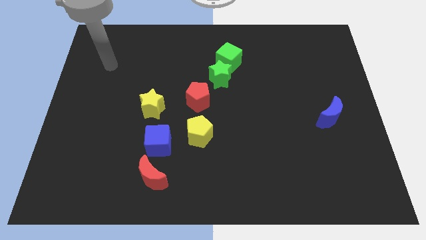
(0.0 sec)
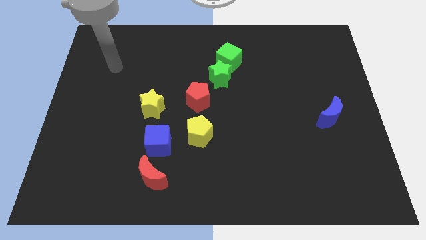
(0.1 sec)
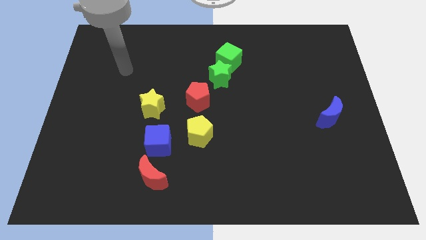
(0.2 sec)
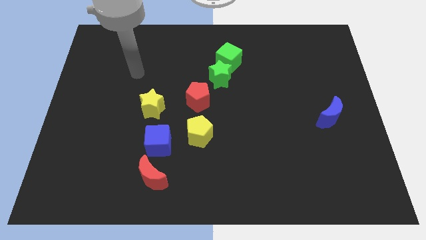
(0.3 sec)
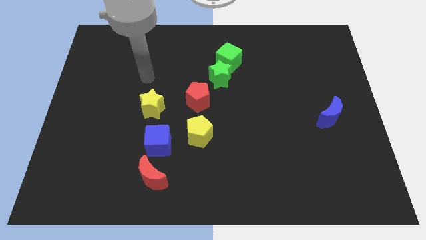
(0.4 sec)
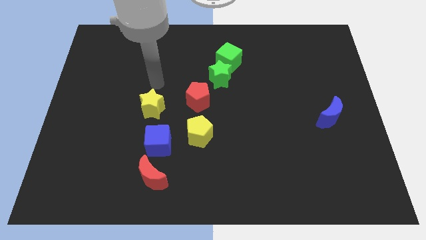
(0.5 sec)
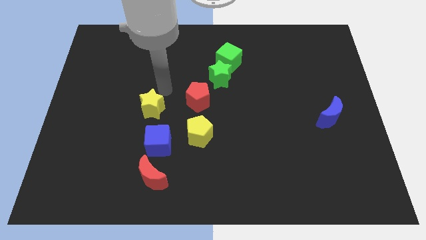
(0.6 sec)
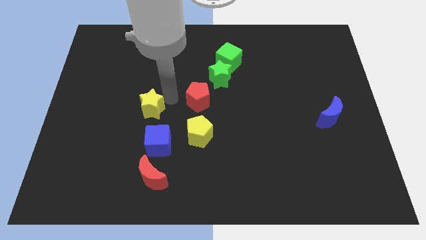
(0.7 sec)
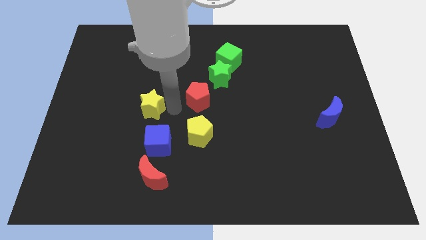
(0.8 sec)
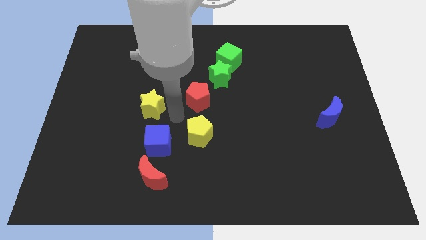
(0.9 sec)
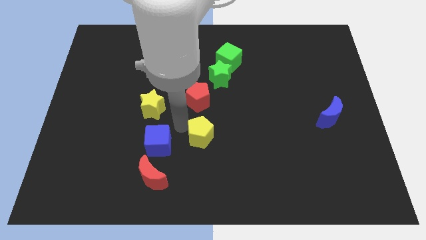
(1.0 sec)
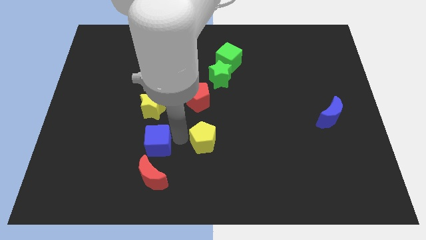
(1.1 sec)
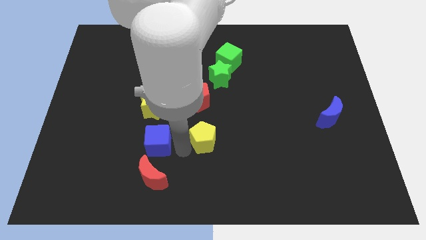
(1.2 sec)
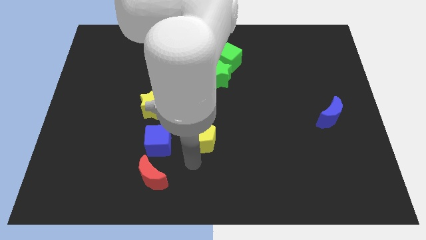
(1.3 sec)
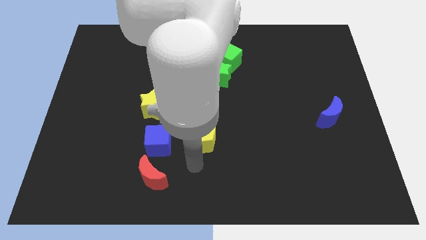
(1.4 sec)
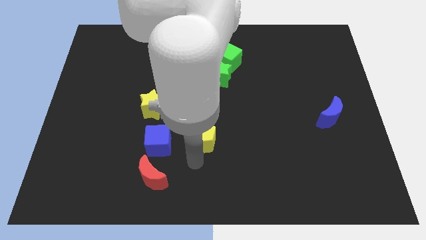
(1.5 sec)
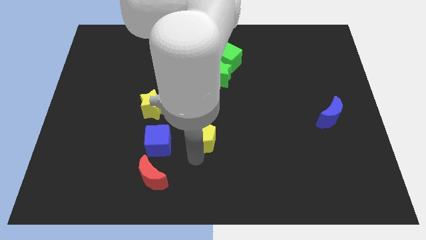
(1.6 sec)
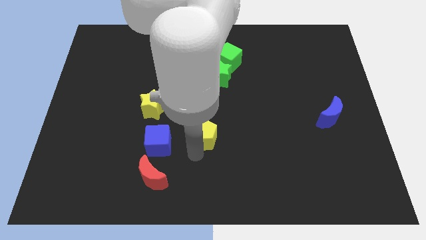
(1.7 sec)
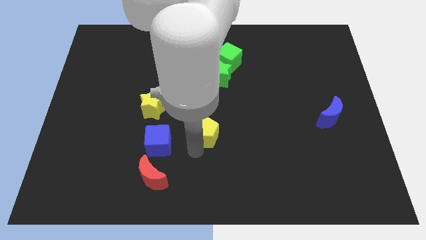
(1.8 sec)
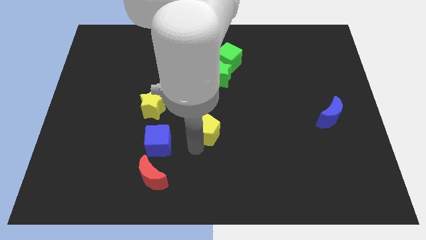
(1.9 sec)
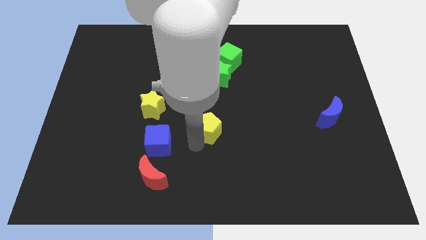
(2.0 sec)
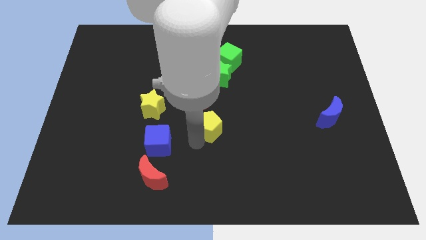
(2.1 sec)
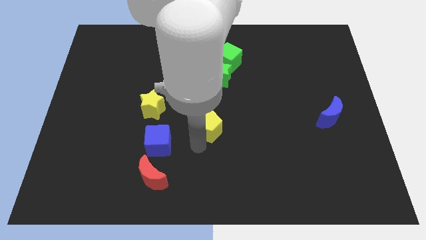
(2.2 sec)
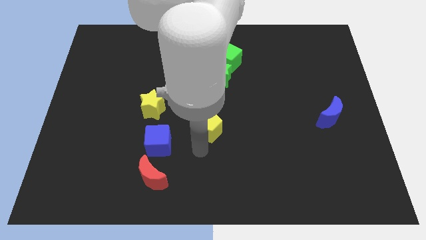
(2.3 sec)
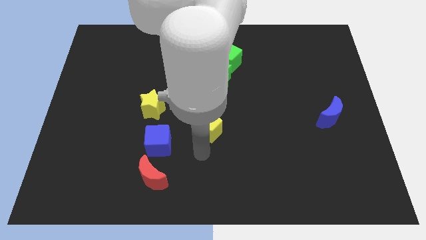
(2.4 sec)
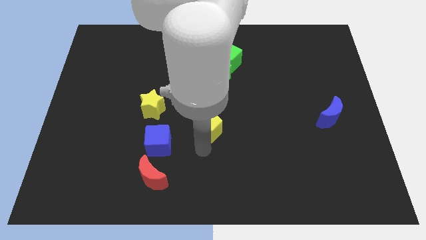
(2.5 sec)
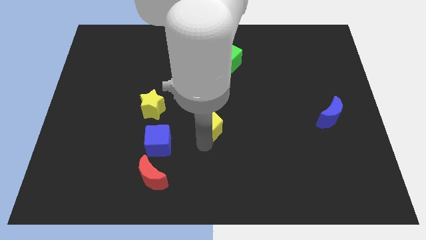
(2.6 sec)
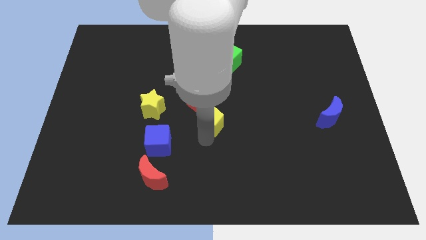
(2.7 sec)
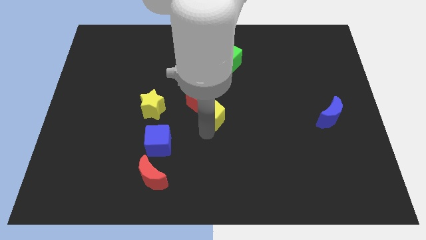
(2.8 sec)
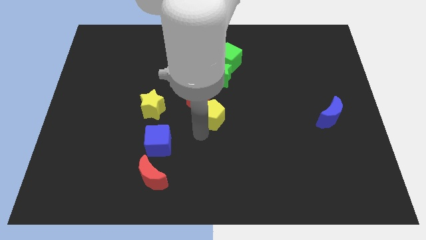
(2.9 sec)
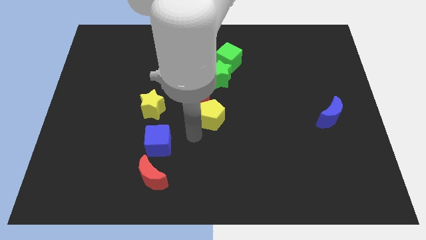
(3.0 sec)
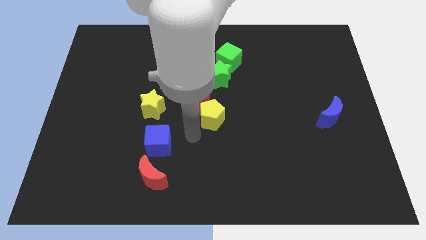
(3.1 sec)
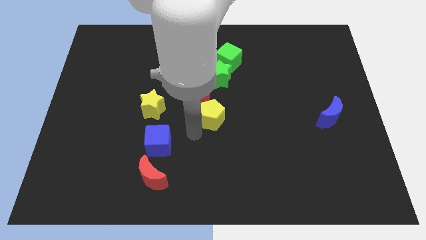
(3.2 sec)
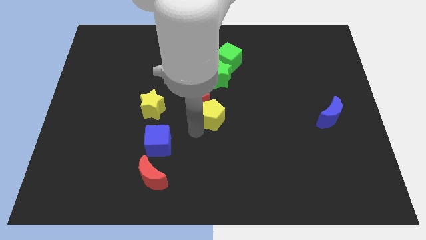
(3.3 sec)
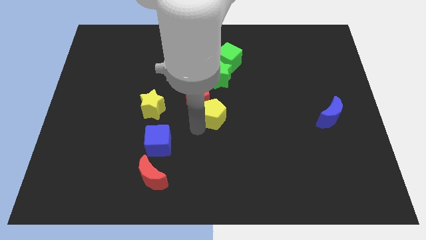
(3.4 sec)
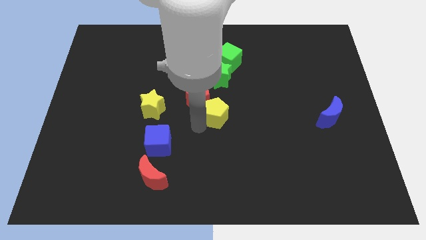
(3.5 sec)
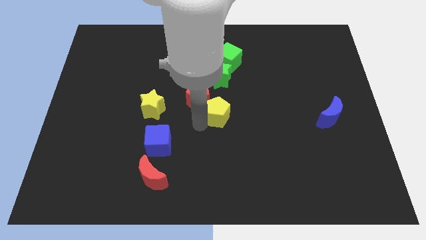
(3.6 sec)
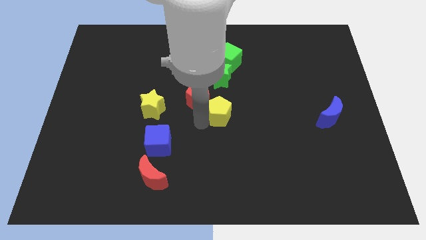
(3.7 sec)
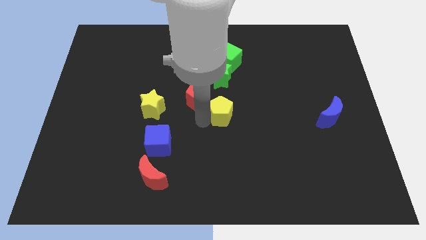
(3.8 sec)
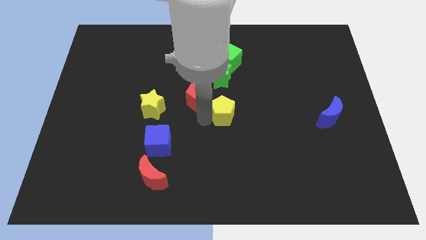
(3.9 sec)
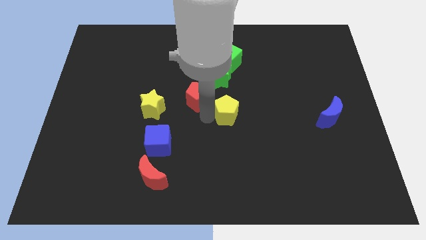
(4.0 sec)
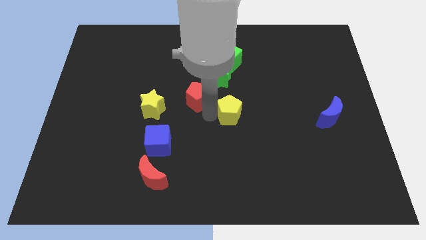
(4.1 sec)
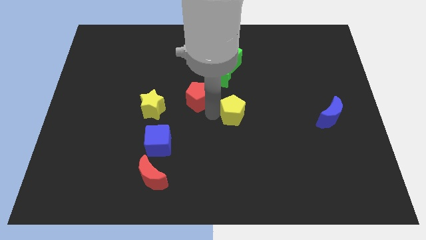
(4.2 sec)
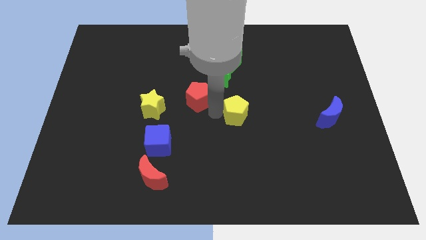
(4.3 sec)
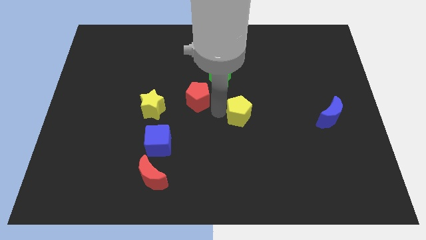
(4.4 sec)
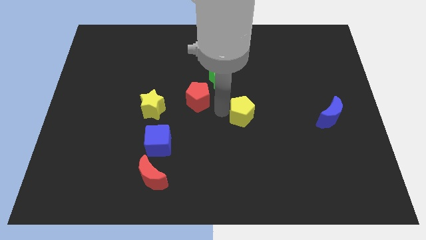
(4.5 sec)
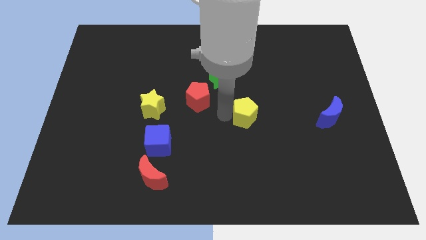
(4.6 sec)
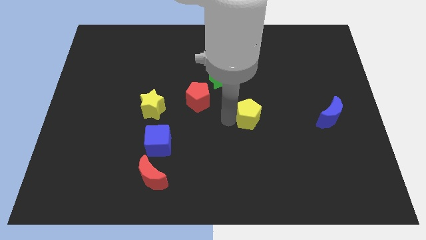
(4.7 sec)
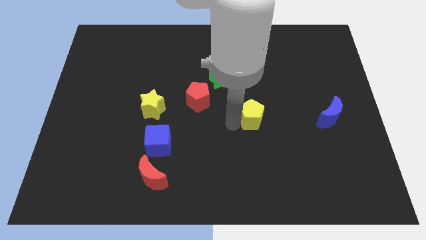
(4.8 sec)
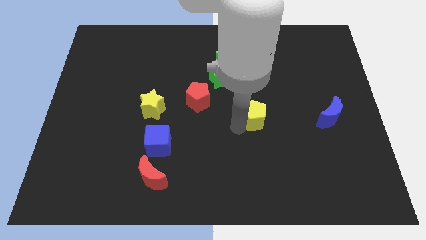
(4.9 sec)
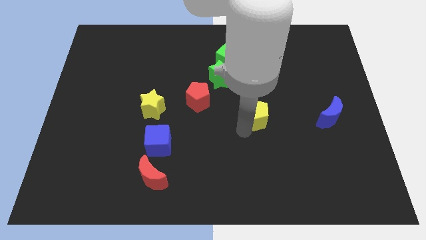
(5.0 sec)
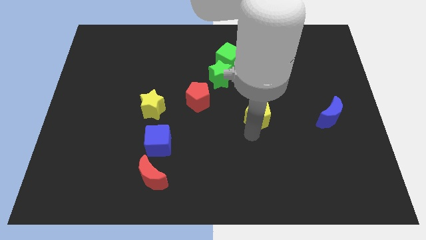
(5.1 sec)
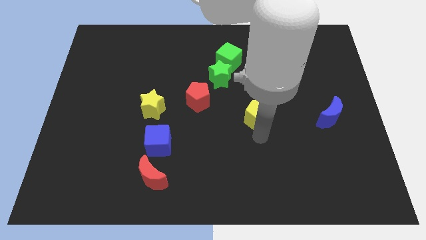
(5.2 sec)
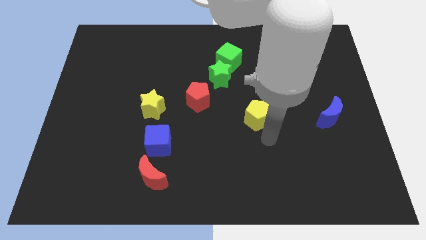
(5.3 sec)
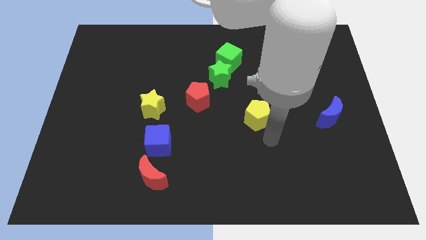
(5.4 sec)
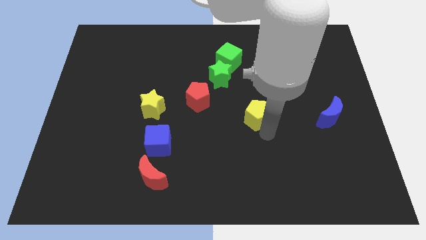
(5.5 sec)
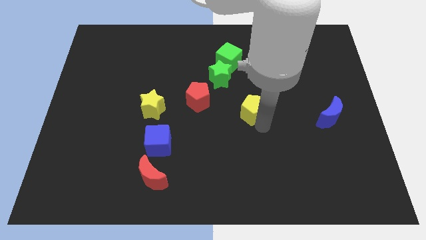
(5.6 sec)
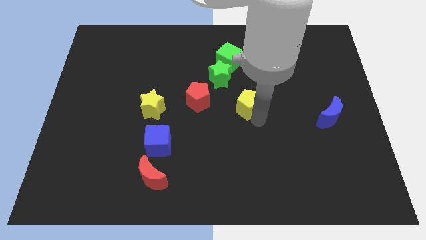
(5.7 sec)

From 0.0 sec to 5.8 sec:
put the yellow pentagon to the bottom right side of the green star

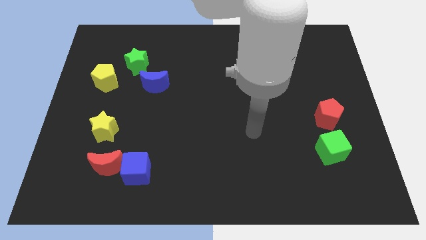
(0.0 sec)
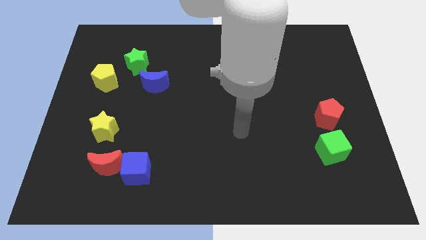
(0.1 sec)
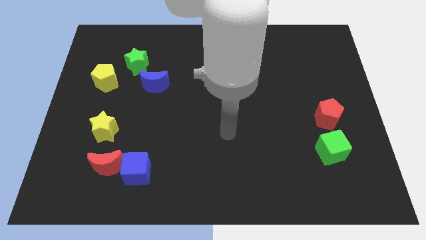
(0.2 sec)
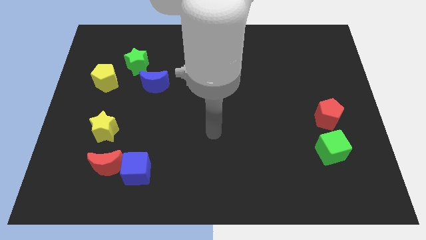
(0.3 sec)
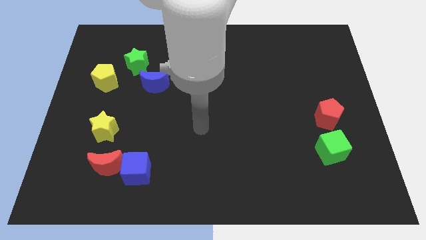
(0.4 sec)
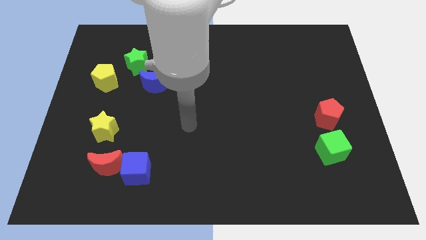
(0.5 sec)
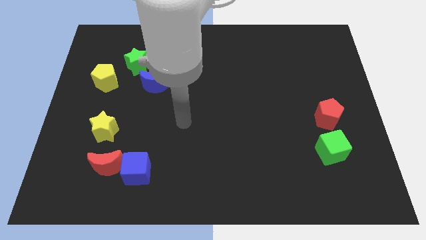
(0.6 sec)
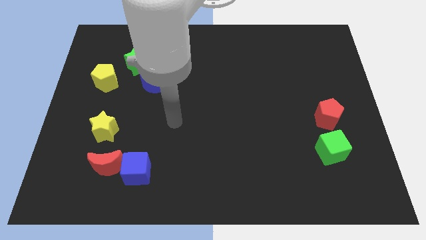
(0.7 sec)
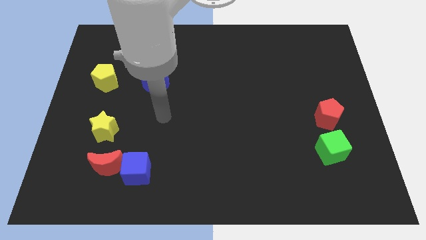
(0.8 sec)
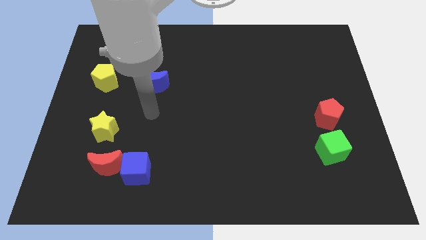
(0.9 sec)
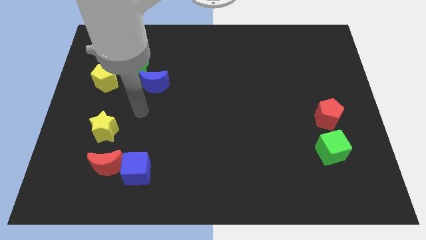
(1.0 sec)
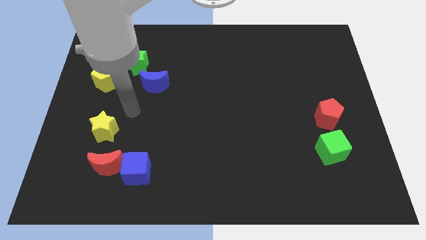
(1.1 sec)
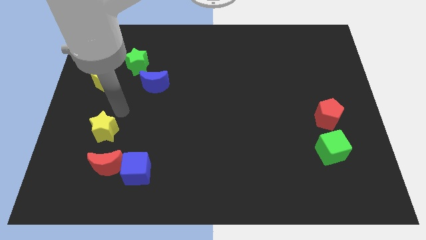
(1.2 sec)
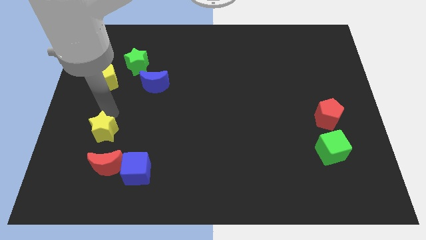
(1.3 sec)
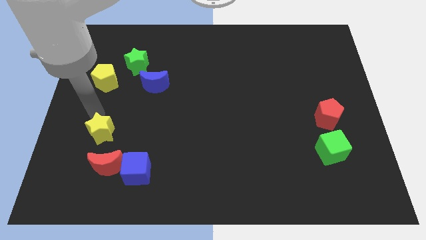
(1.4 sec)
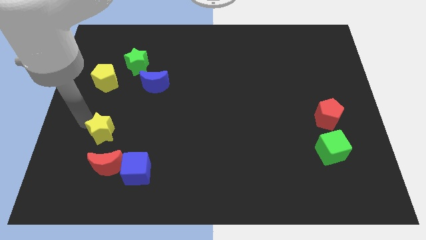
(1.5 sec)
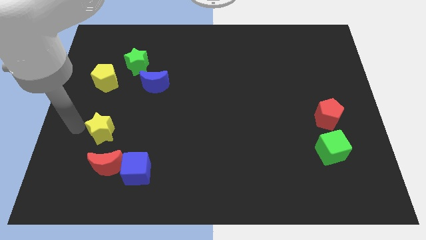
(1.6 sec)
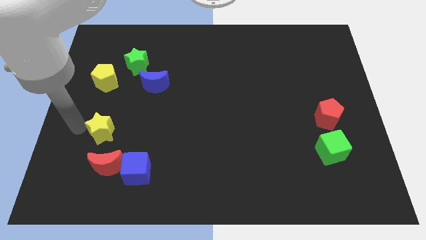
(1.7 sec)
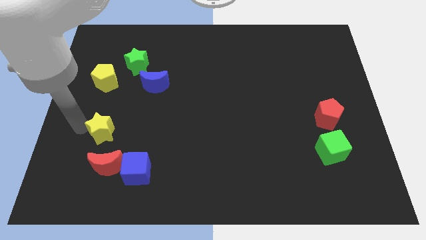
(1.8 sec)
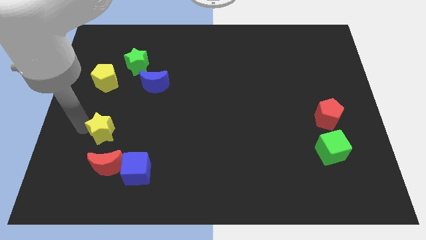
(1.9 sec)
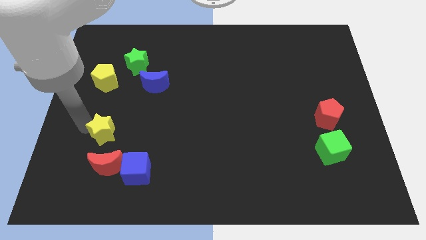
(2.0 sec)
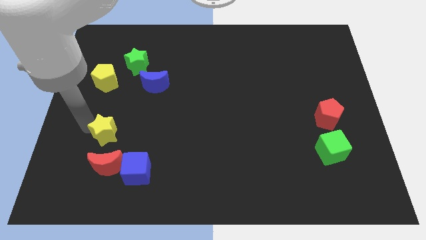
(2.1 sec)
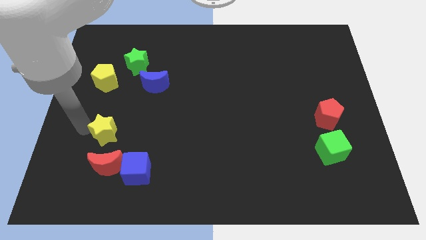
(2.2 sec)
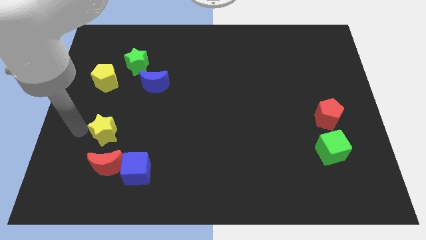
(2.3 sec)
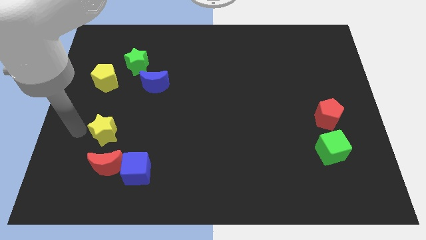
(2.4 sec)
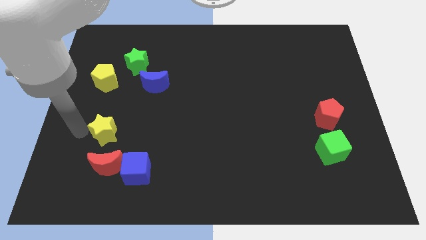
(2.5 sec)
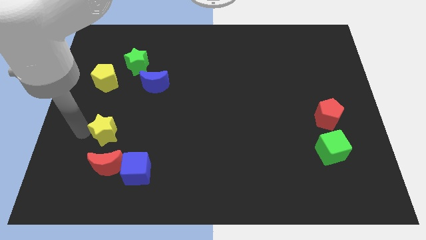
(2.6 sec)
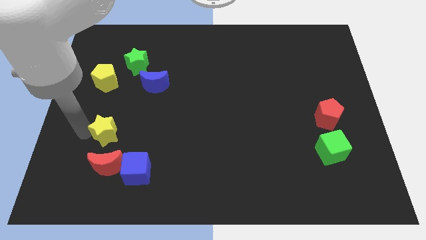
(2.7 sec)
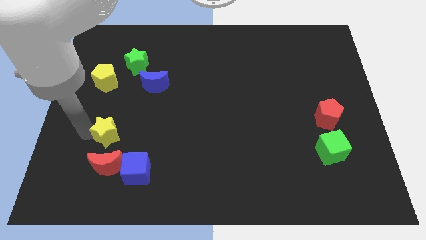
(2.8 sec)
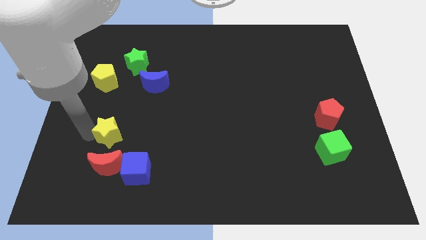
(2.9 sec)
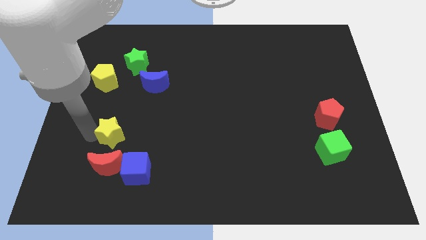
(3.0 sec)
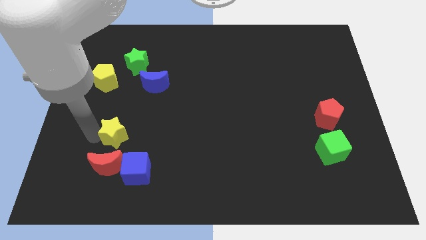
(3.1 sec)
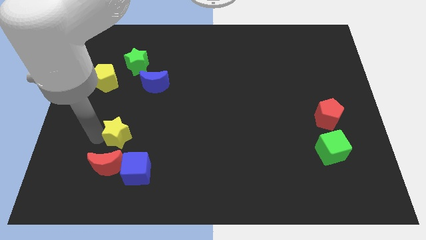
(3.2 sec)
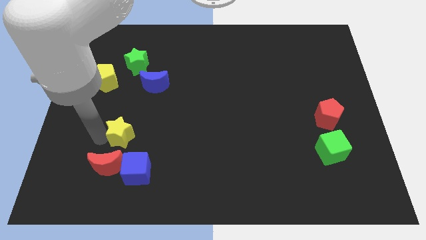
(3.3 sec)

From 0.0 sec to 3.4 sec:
move the yellow star to the top of the blue cube
